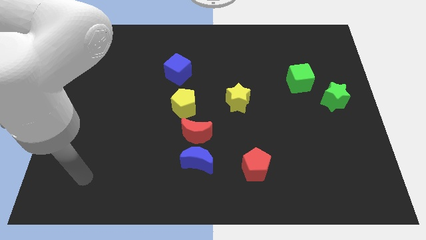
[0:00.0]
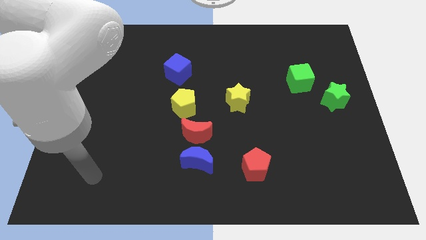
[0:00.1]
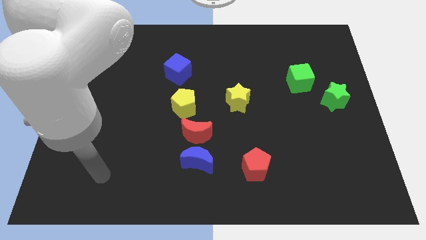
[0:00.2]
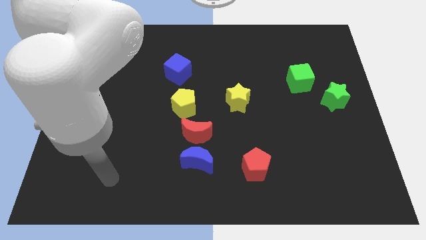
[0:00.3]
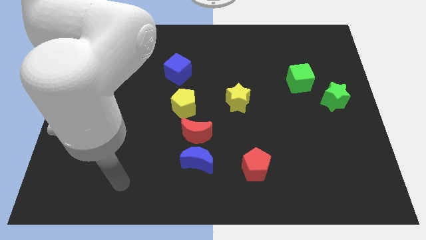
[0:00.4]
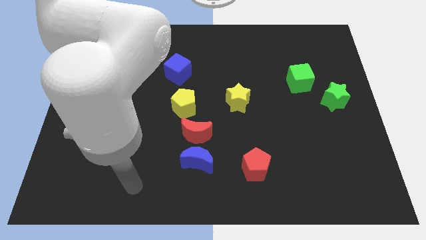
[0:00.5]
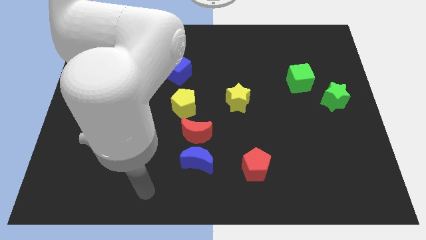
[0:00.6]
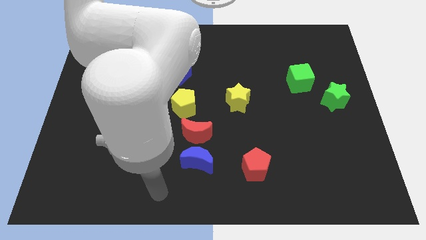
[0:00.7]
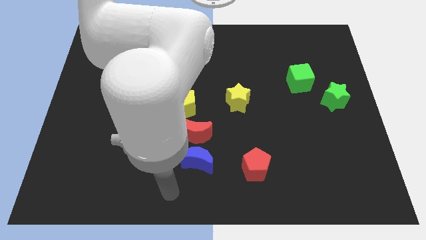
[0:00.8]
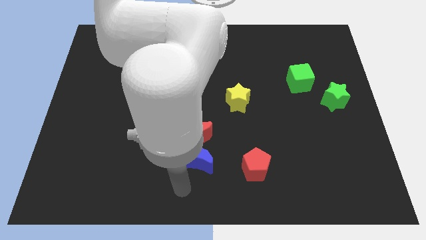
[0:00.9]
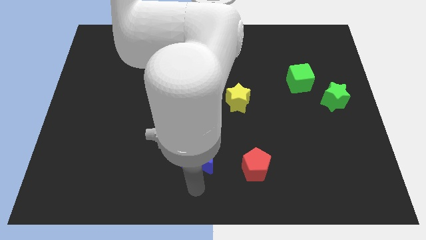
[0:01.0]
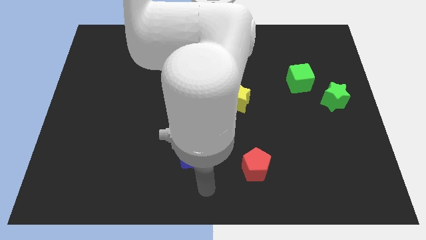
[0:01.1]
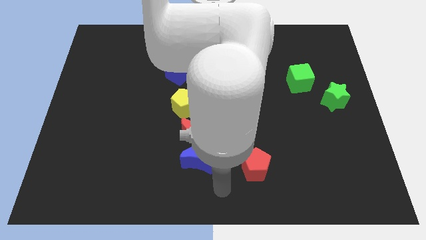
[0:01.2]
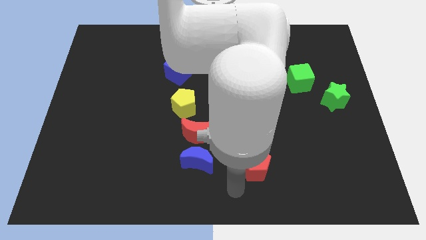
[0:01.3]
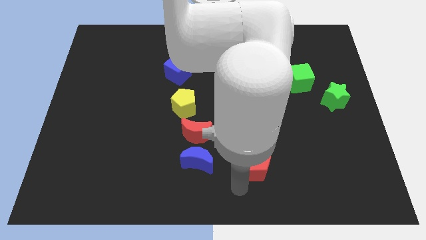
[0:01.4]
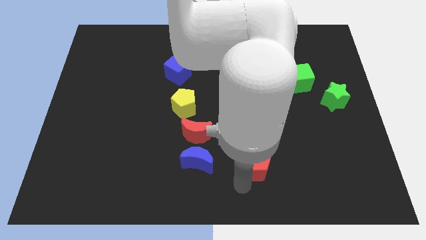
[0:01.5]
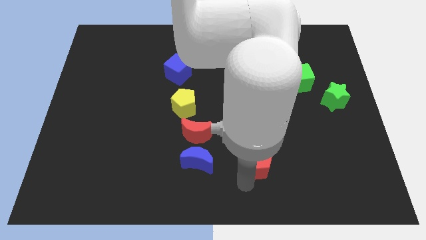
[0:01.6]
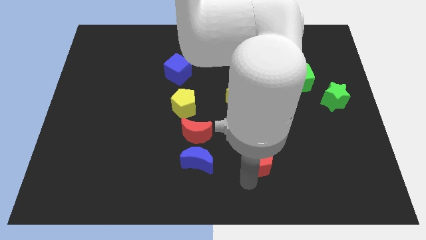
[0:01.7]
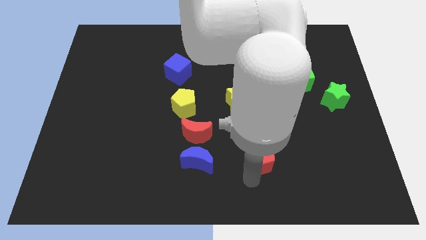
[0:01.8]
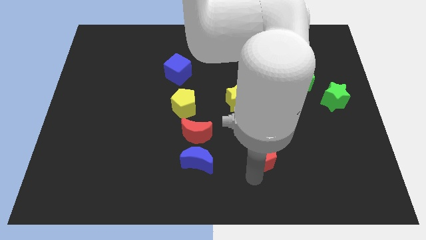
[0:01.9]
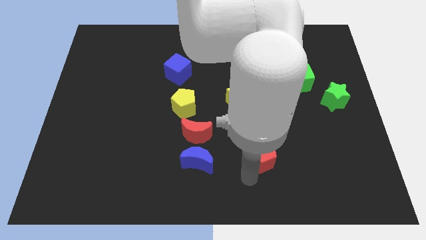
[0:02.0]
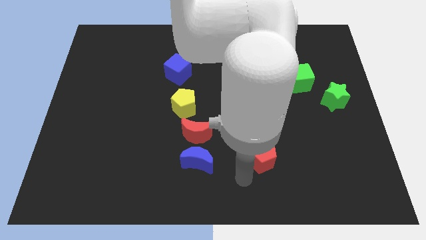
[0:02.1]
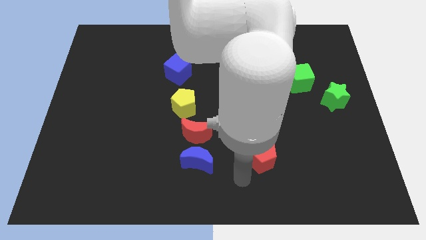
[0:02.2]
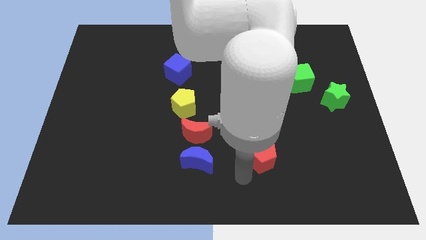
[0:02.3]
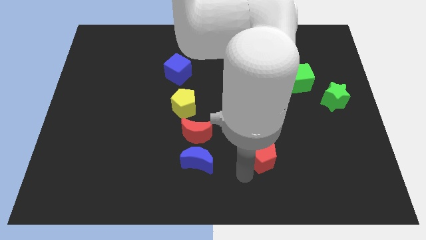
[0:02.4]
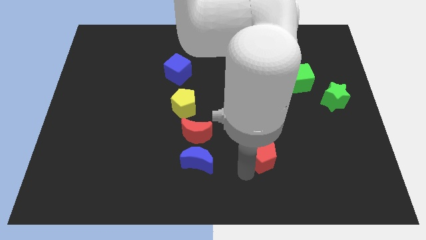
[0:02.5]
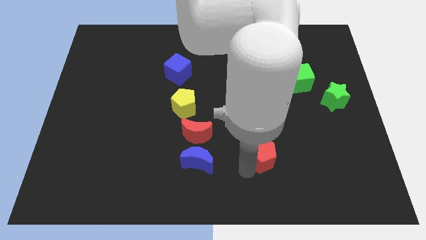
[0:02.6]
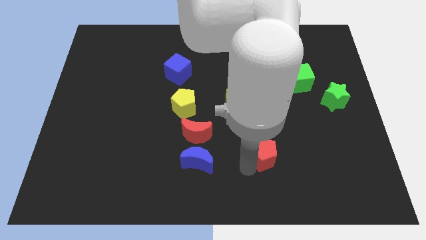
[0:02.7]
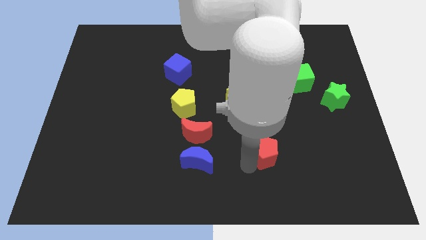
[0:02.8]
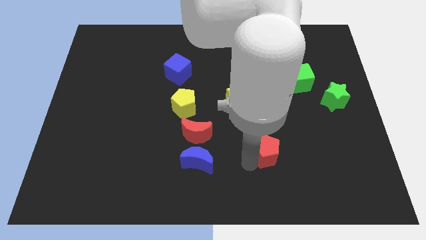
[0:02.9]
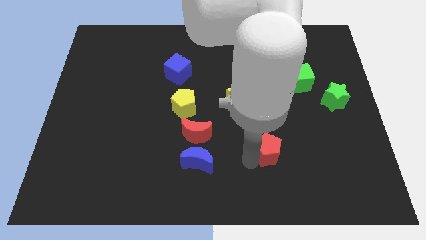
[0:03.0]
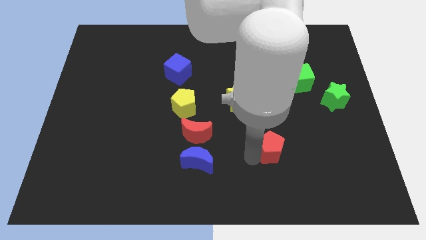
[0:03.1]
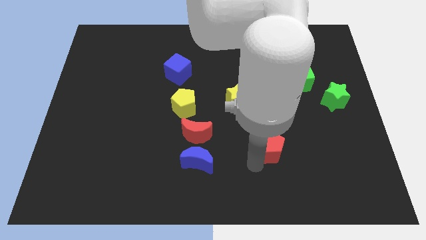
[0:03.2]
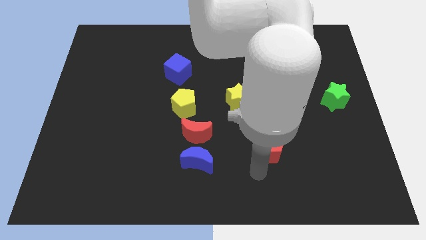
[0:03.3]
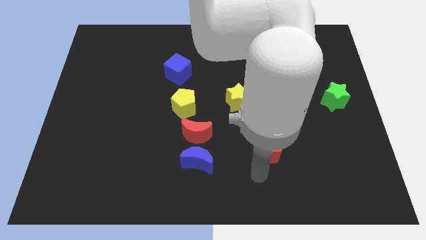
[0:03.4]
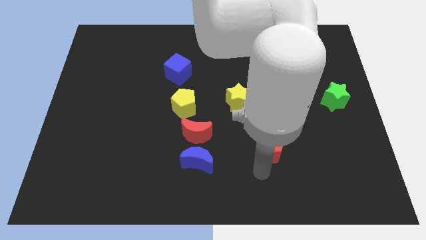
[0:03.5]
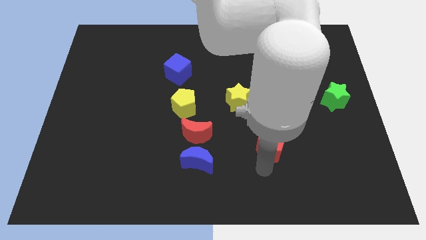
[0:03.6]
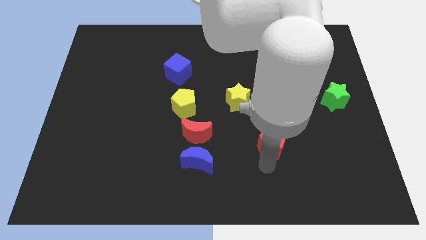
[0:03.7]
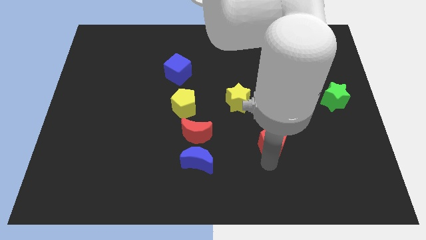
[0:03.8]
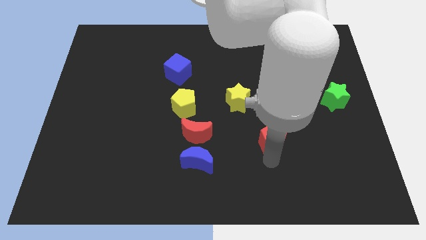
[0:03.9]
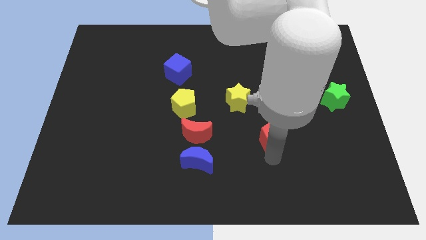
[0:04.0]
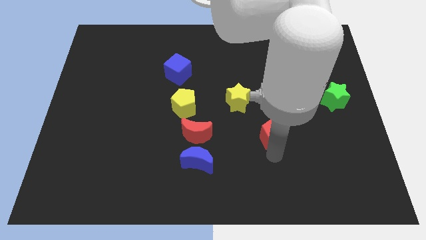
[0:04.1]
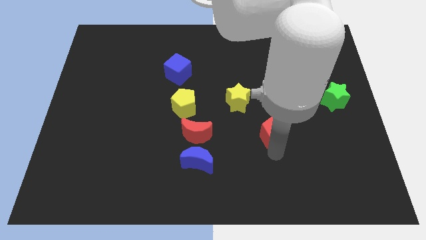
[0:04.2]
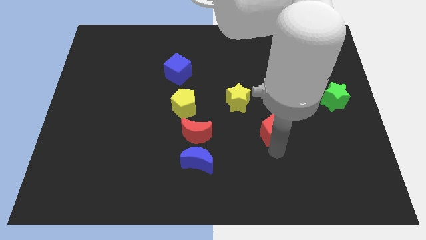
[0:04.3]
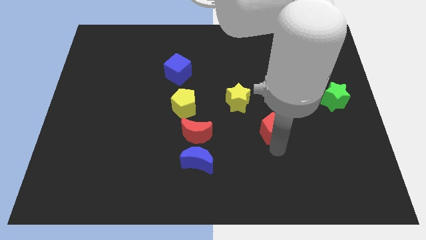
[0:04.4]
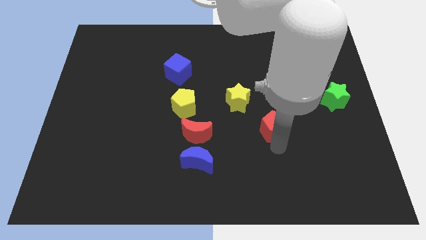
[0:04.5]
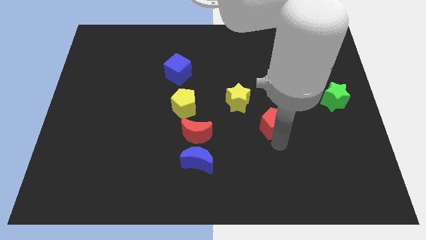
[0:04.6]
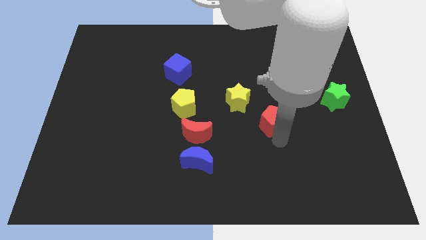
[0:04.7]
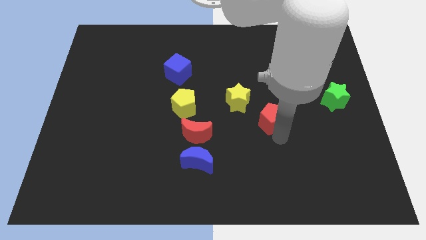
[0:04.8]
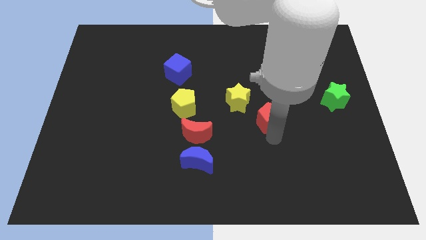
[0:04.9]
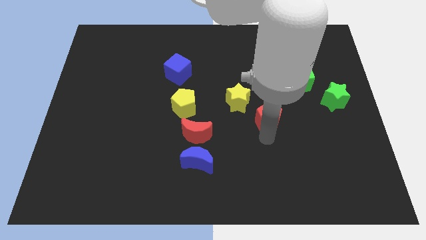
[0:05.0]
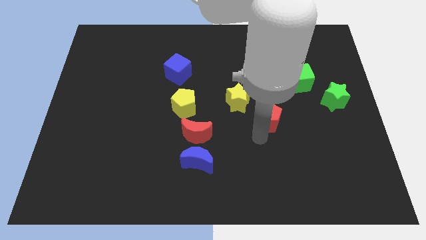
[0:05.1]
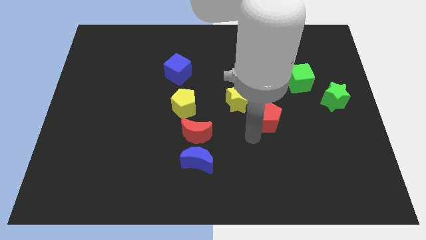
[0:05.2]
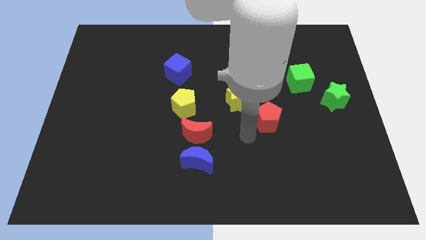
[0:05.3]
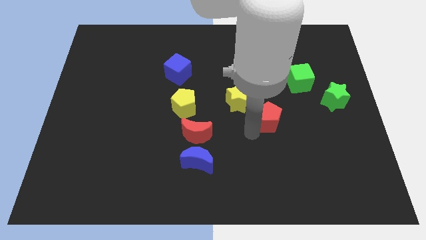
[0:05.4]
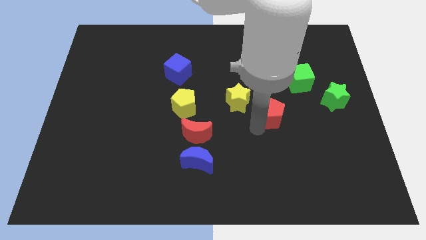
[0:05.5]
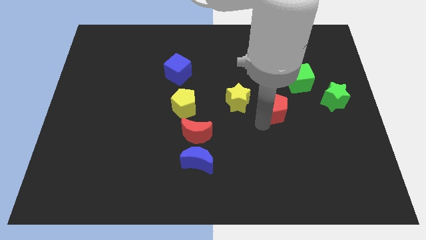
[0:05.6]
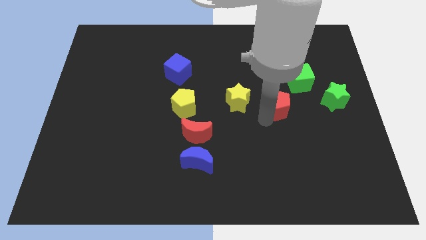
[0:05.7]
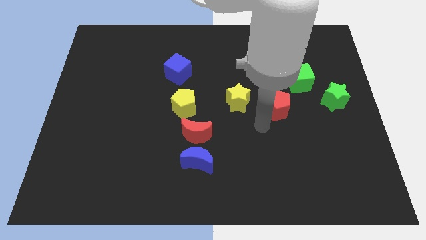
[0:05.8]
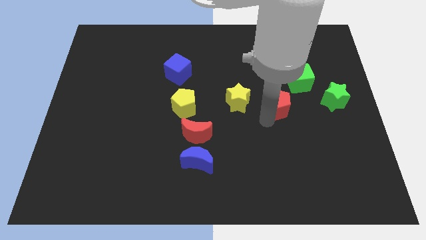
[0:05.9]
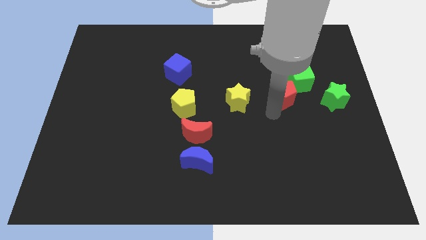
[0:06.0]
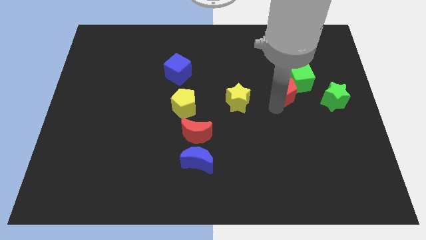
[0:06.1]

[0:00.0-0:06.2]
push the red pentagon to the green cube
